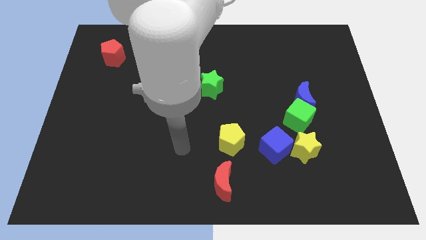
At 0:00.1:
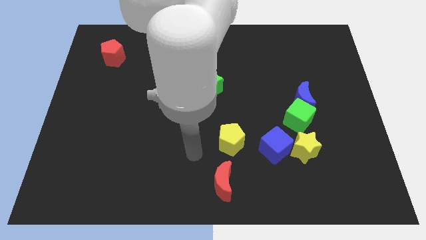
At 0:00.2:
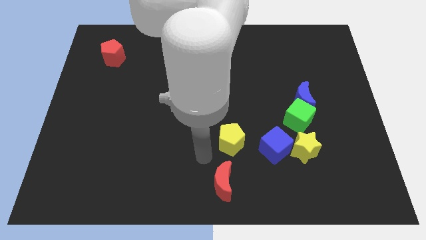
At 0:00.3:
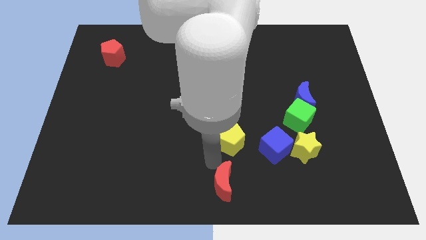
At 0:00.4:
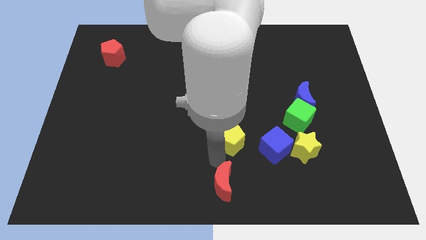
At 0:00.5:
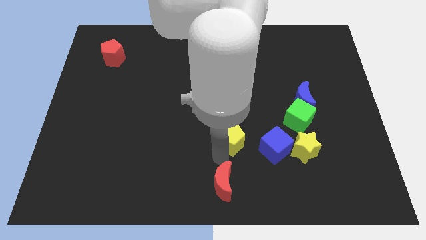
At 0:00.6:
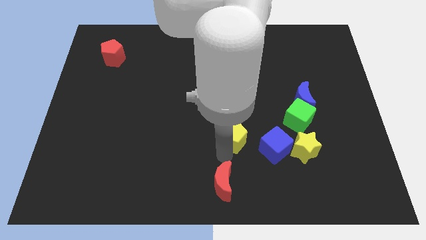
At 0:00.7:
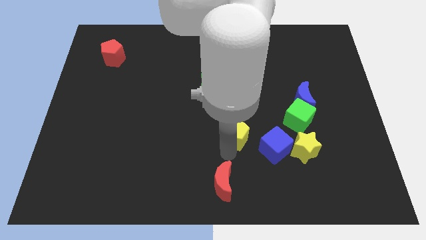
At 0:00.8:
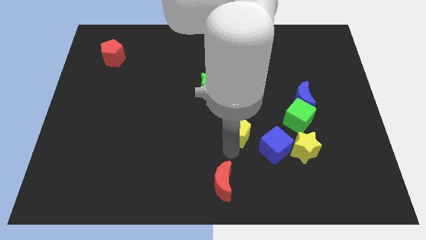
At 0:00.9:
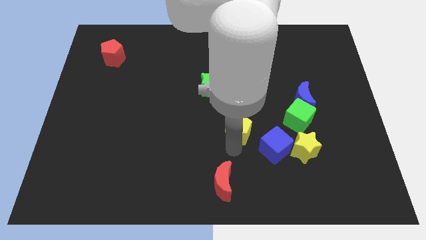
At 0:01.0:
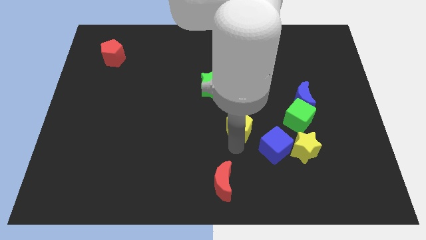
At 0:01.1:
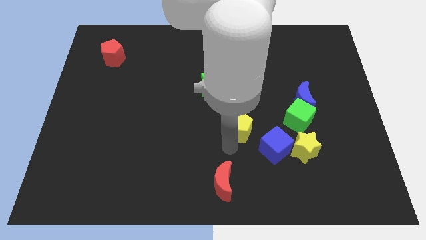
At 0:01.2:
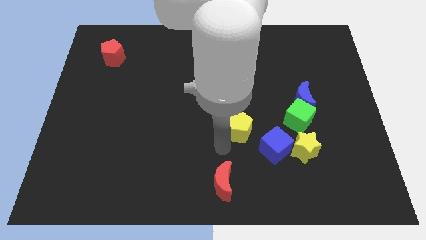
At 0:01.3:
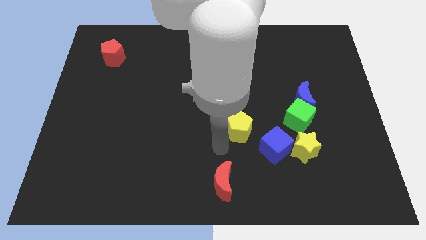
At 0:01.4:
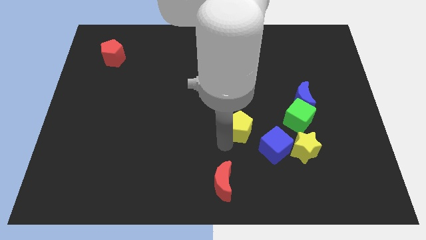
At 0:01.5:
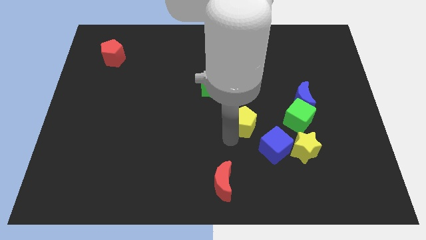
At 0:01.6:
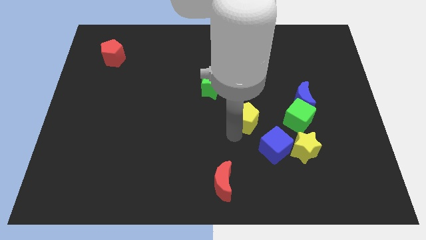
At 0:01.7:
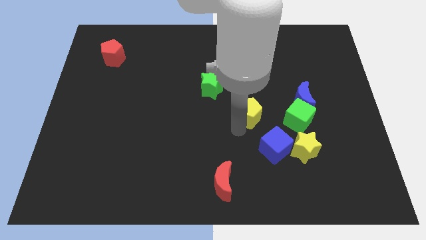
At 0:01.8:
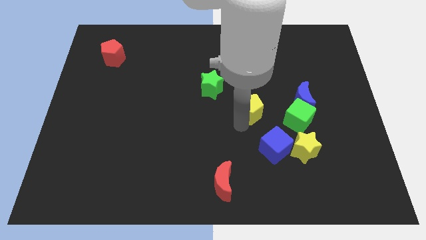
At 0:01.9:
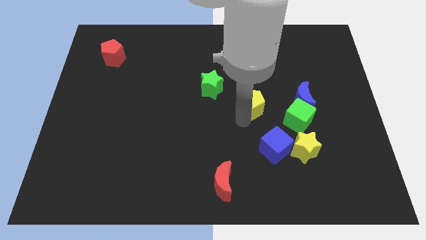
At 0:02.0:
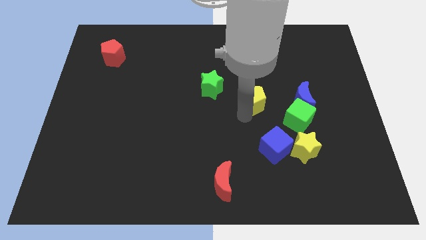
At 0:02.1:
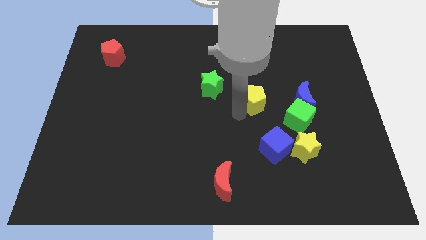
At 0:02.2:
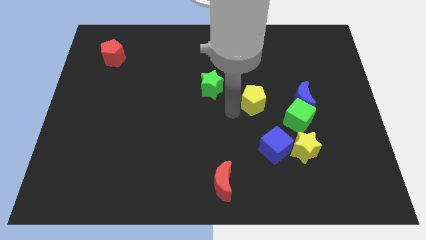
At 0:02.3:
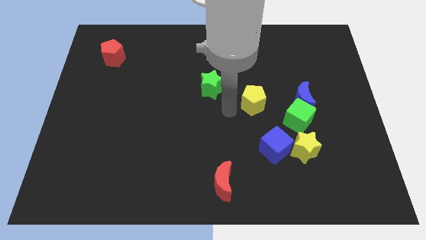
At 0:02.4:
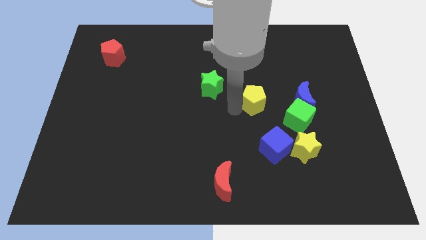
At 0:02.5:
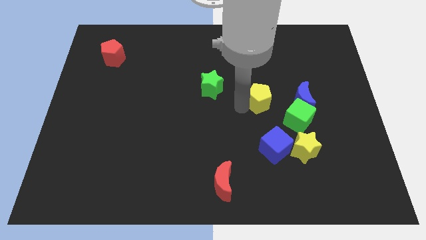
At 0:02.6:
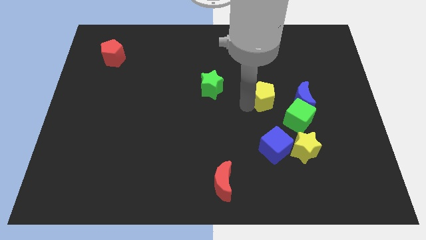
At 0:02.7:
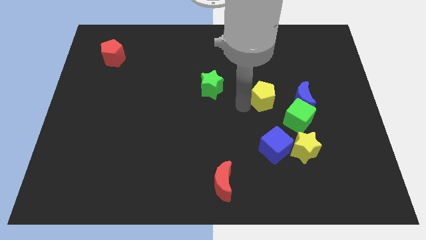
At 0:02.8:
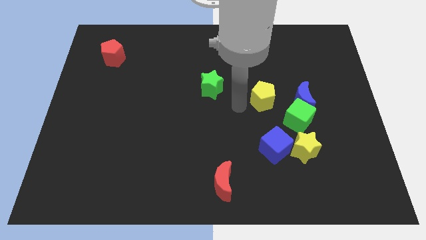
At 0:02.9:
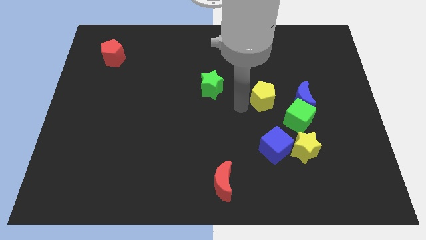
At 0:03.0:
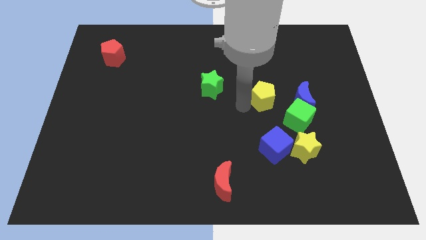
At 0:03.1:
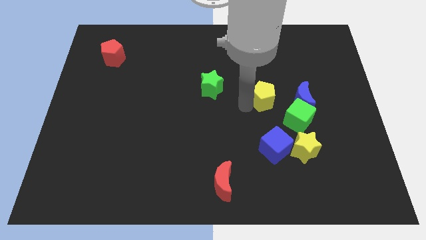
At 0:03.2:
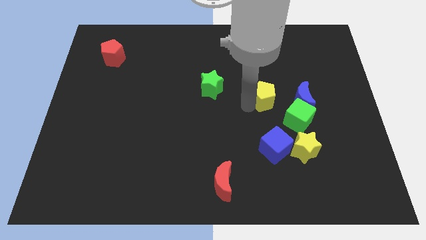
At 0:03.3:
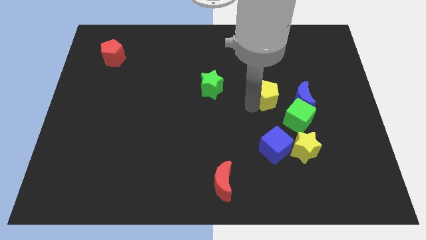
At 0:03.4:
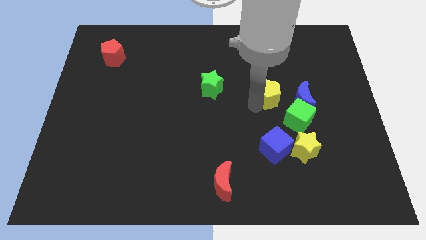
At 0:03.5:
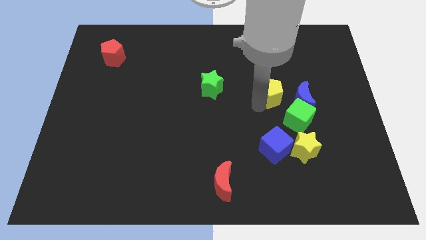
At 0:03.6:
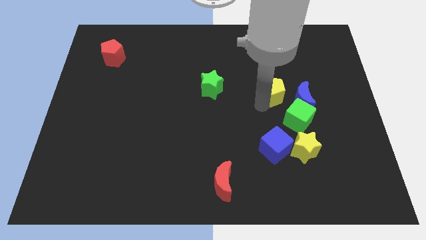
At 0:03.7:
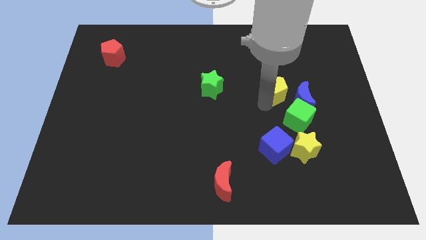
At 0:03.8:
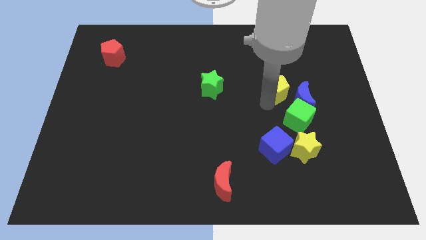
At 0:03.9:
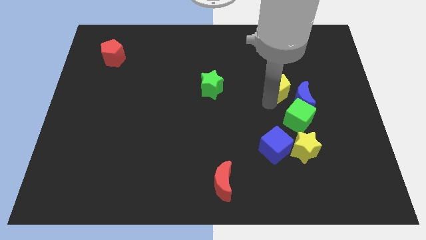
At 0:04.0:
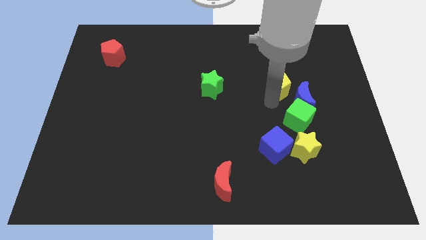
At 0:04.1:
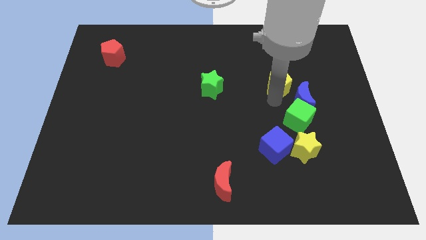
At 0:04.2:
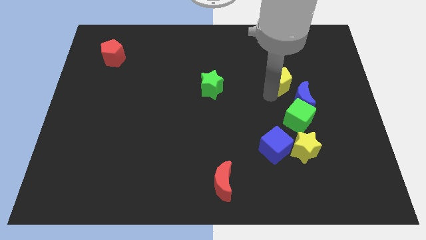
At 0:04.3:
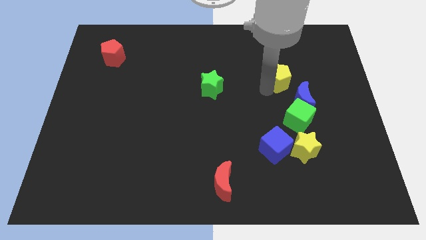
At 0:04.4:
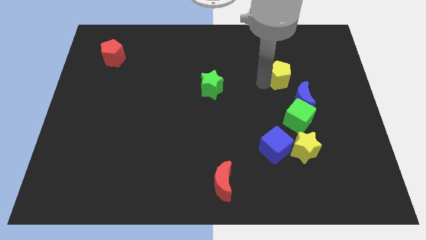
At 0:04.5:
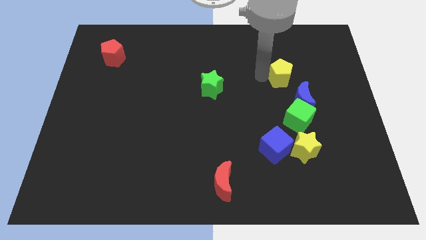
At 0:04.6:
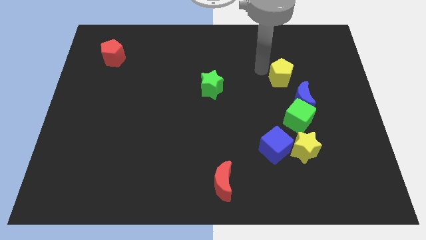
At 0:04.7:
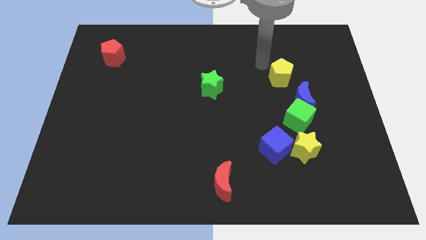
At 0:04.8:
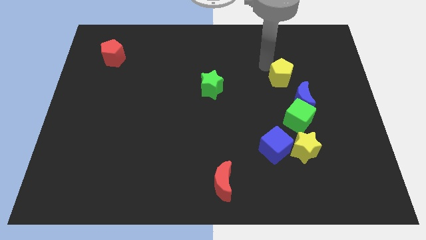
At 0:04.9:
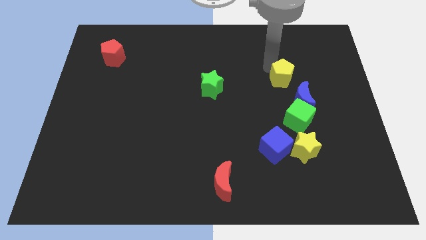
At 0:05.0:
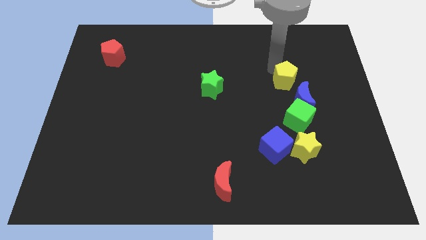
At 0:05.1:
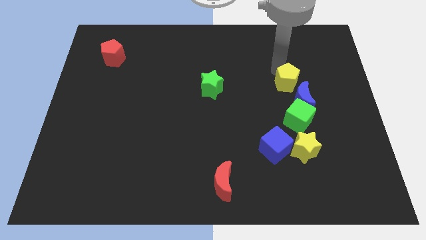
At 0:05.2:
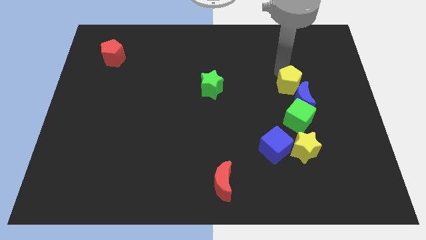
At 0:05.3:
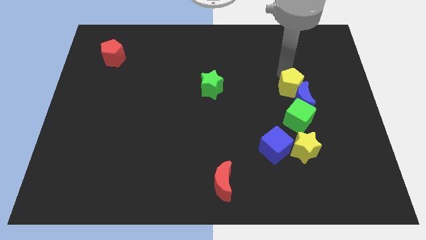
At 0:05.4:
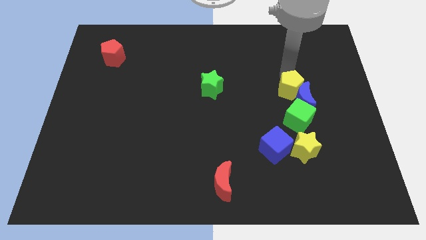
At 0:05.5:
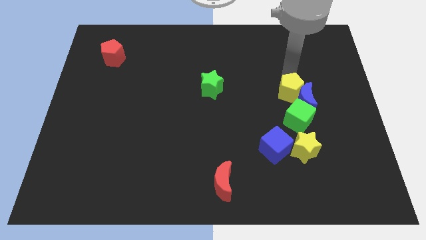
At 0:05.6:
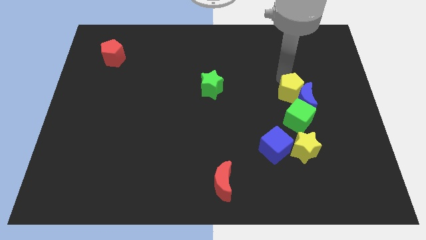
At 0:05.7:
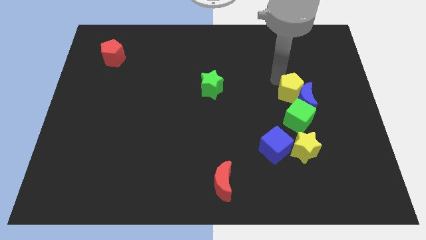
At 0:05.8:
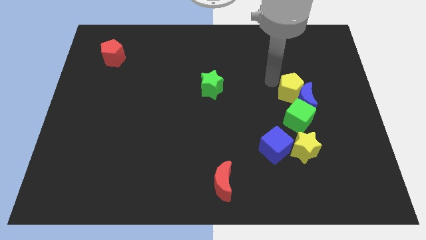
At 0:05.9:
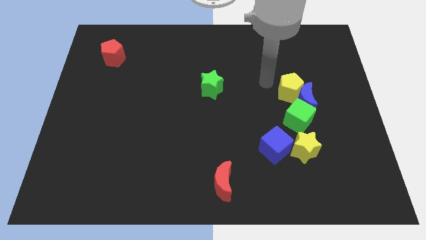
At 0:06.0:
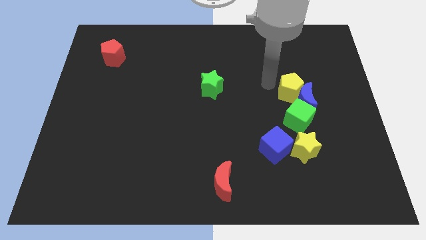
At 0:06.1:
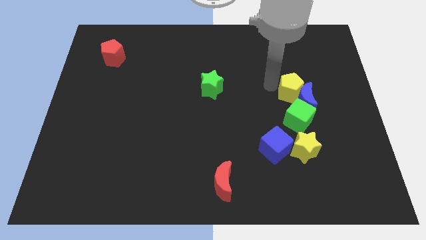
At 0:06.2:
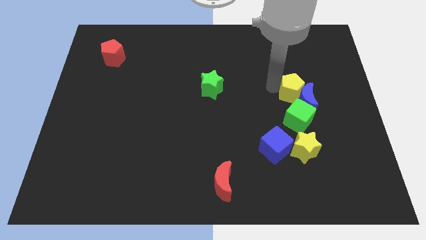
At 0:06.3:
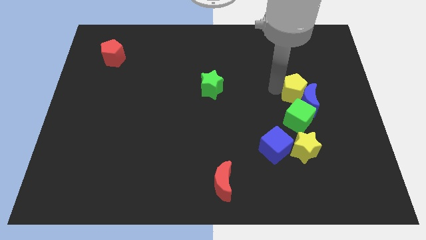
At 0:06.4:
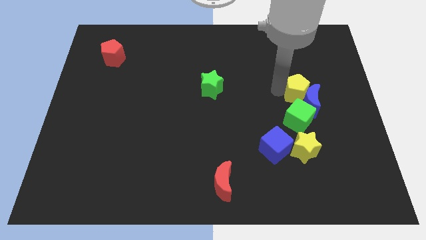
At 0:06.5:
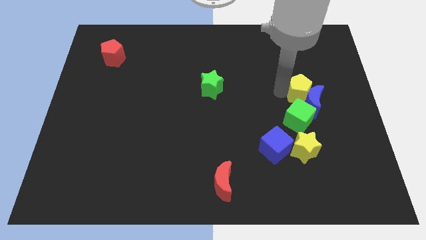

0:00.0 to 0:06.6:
slide the yellow pentagon to the top right of the green cube

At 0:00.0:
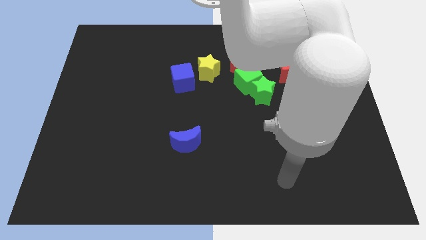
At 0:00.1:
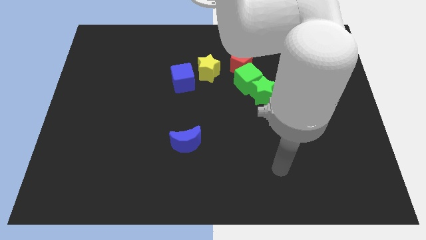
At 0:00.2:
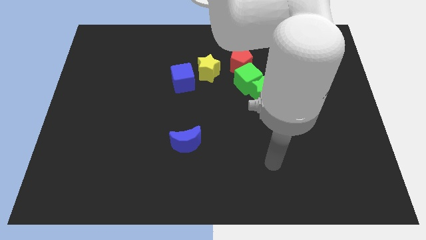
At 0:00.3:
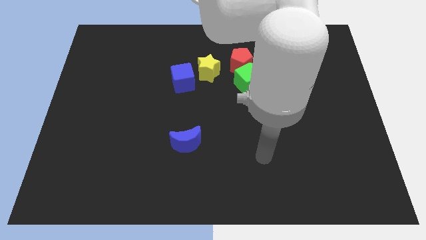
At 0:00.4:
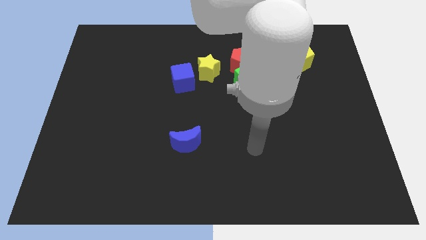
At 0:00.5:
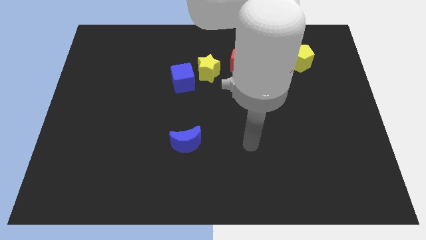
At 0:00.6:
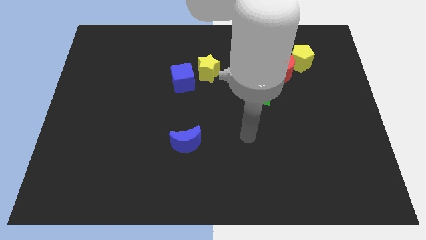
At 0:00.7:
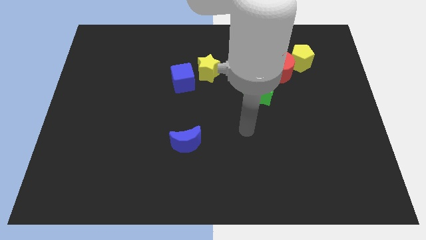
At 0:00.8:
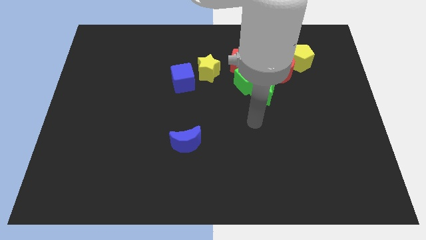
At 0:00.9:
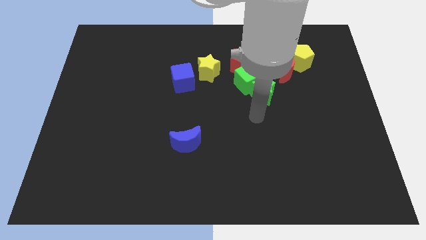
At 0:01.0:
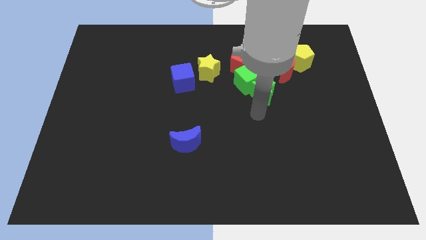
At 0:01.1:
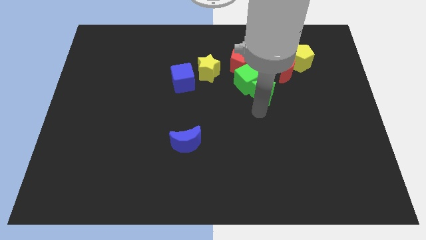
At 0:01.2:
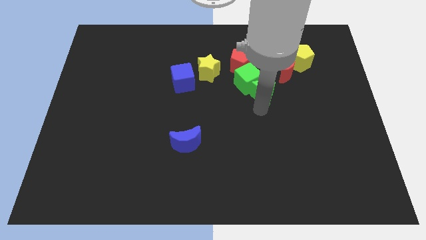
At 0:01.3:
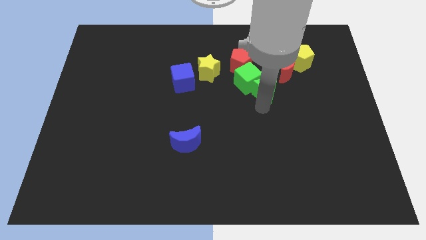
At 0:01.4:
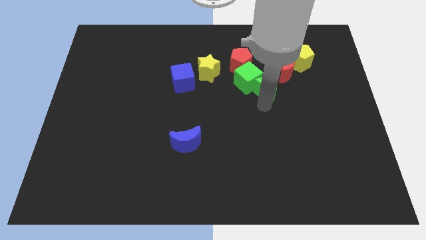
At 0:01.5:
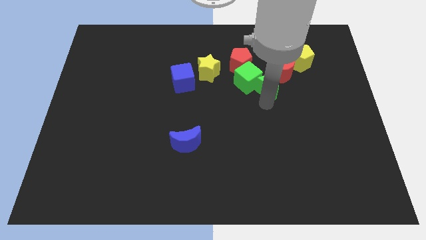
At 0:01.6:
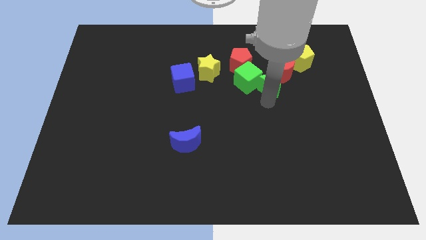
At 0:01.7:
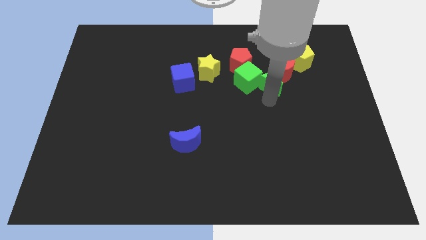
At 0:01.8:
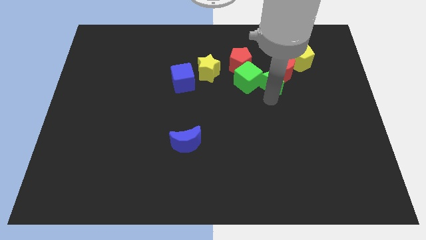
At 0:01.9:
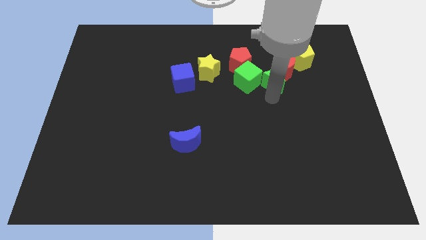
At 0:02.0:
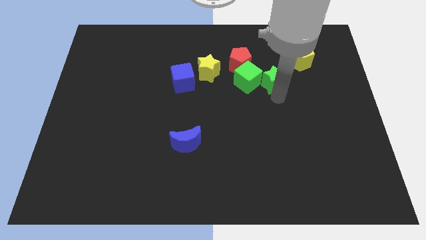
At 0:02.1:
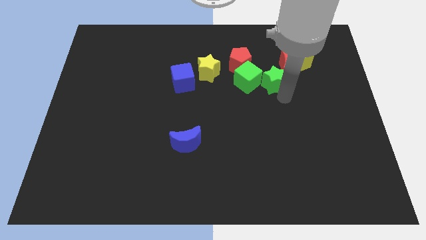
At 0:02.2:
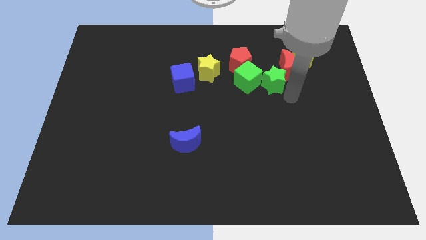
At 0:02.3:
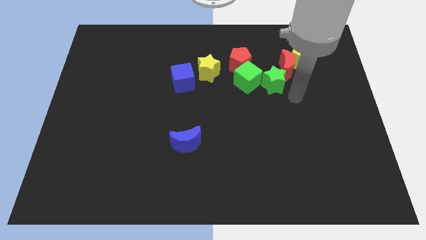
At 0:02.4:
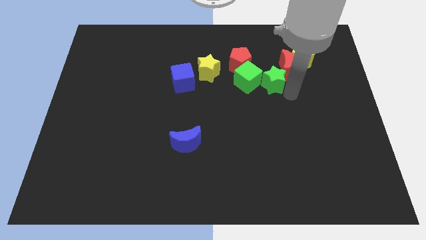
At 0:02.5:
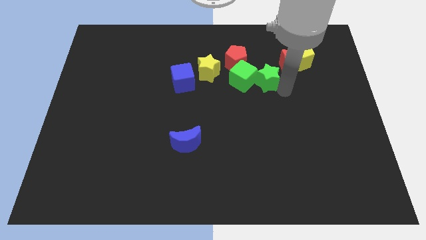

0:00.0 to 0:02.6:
slide the green star right of the yellow star
